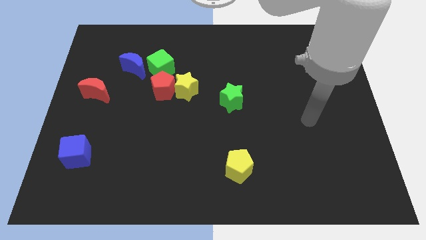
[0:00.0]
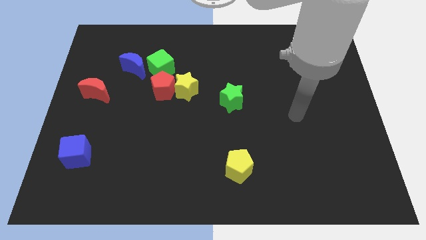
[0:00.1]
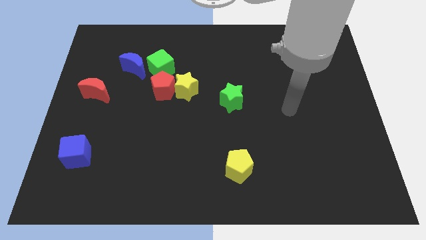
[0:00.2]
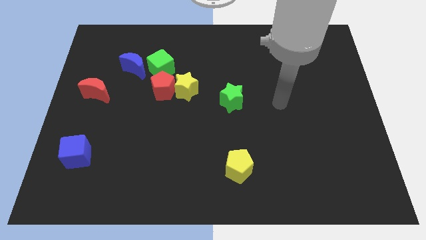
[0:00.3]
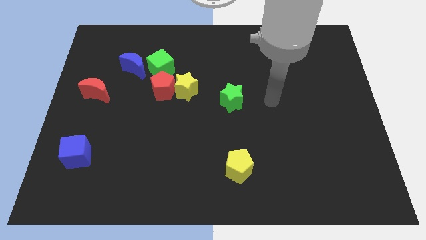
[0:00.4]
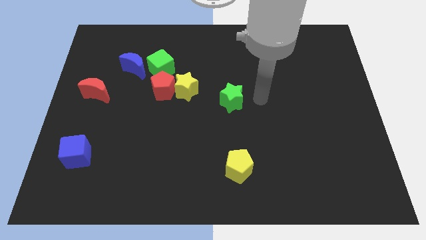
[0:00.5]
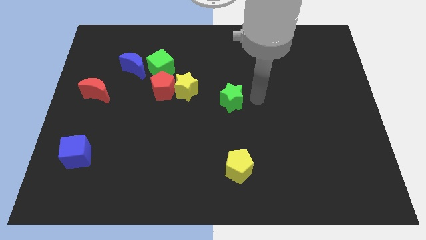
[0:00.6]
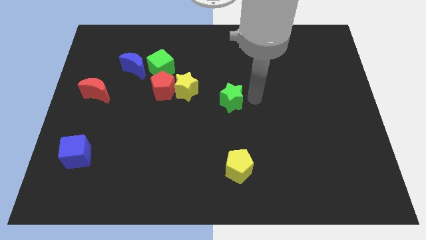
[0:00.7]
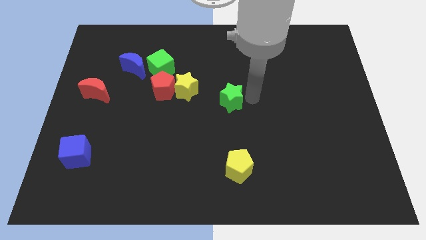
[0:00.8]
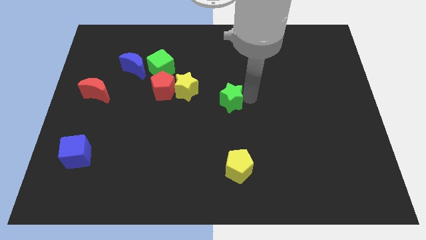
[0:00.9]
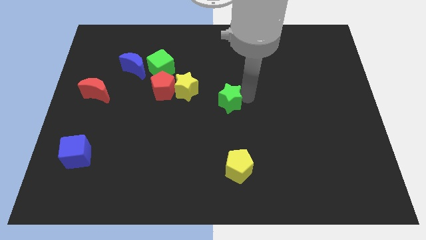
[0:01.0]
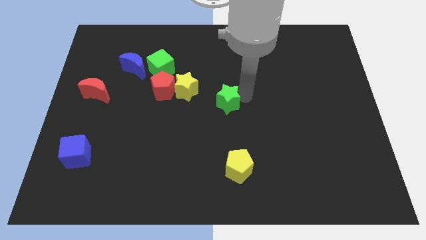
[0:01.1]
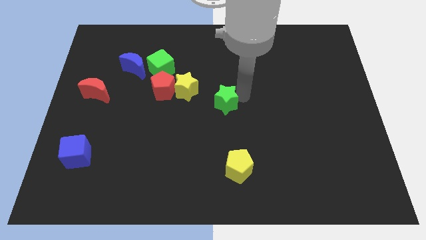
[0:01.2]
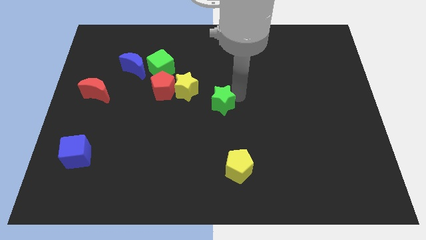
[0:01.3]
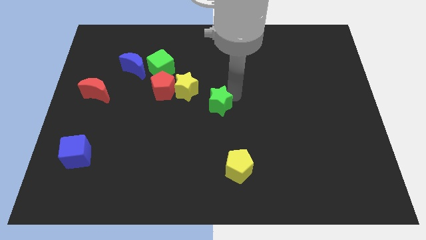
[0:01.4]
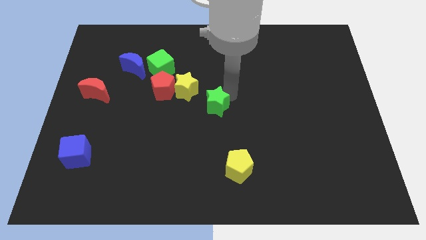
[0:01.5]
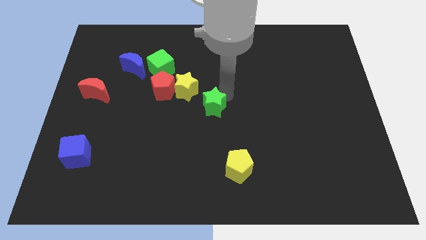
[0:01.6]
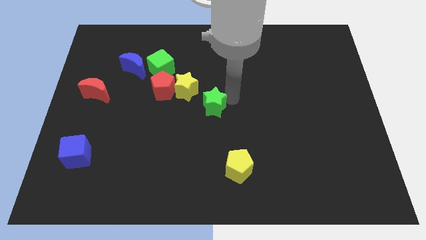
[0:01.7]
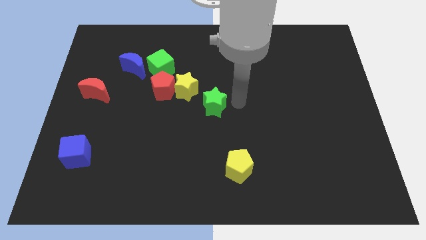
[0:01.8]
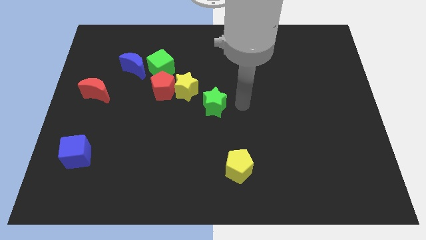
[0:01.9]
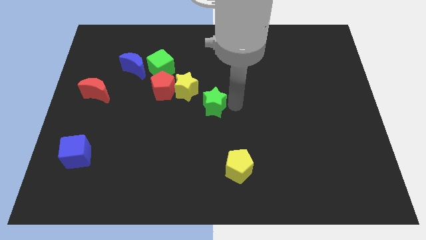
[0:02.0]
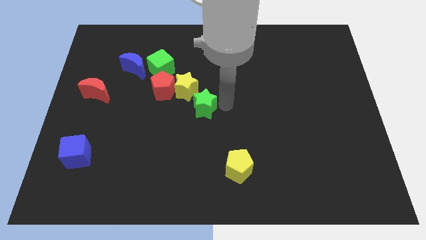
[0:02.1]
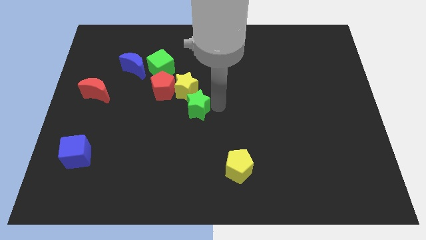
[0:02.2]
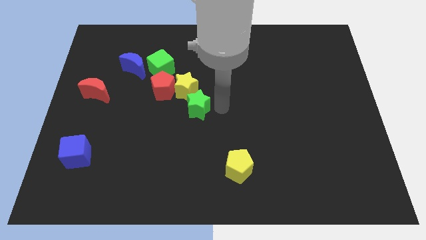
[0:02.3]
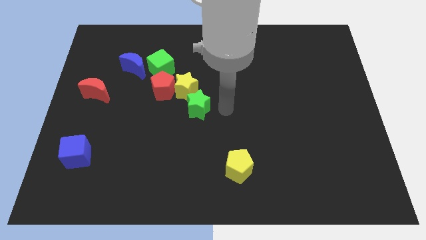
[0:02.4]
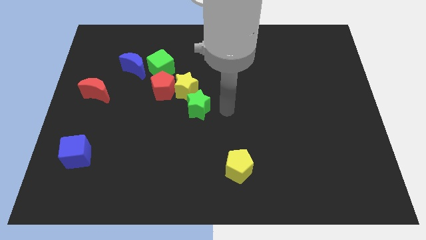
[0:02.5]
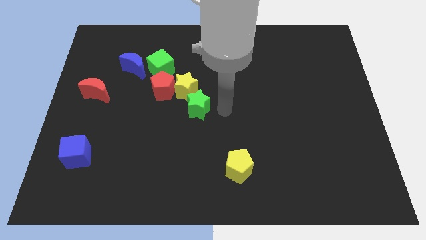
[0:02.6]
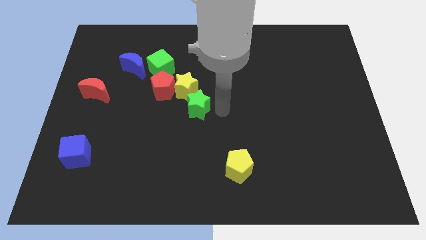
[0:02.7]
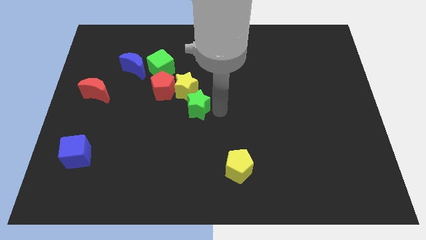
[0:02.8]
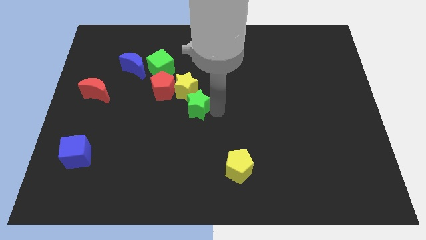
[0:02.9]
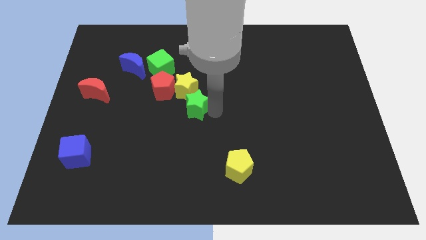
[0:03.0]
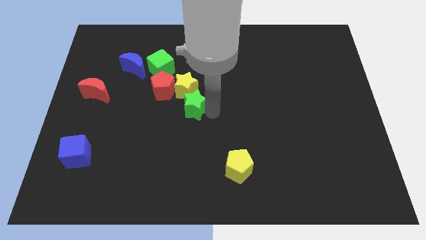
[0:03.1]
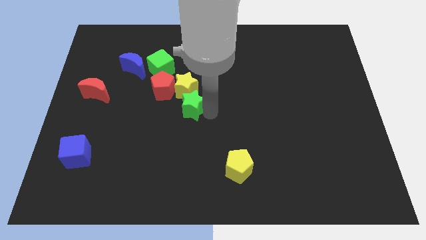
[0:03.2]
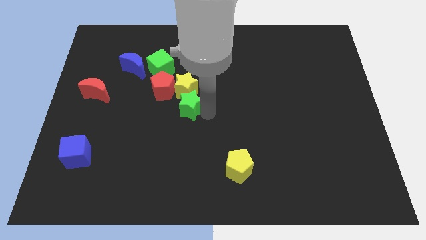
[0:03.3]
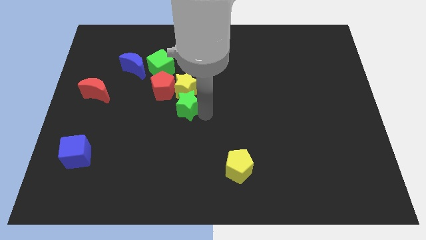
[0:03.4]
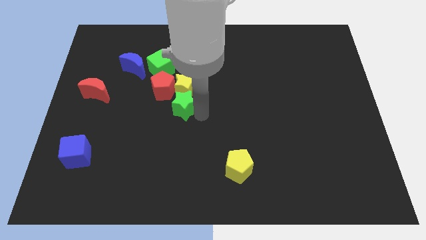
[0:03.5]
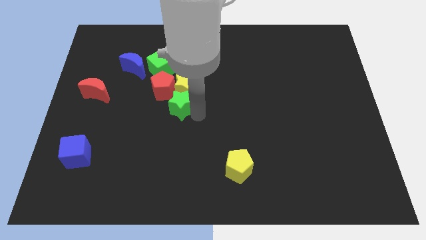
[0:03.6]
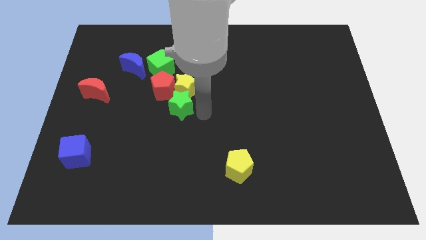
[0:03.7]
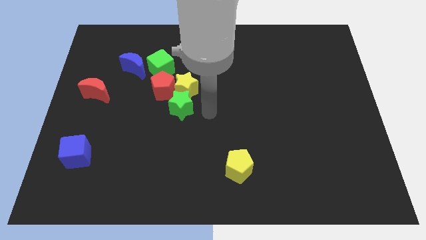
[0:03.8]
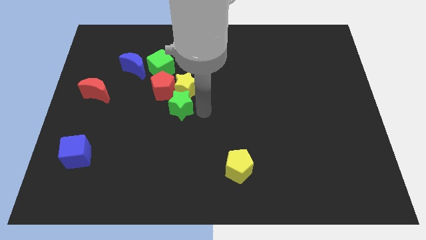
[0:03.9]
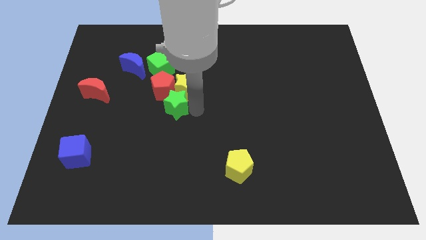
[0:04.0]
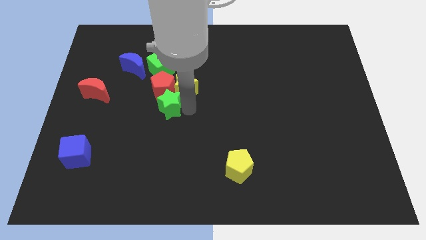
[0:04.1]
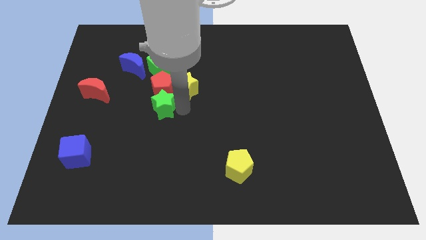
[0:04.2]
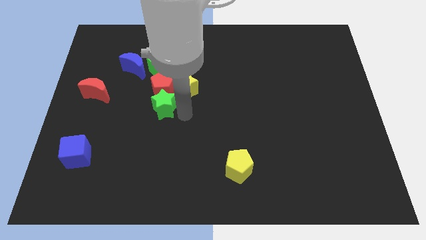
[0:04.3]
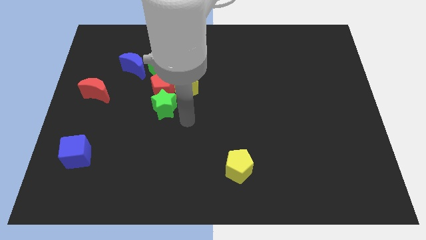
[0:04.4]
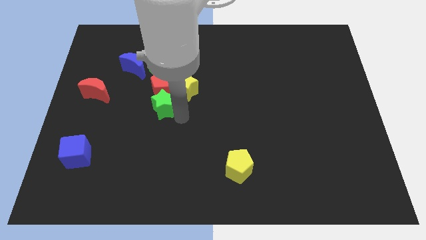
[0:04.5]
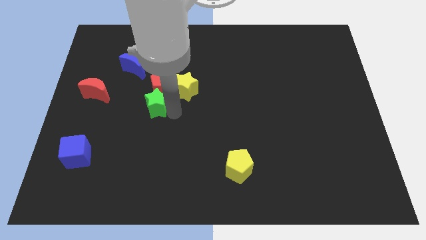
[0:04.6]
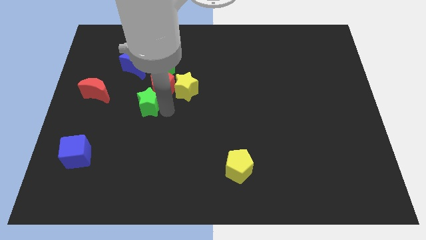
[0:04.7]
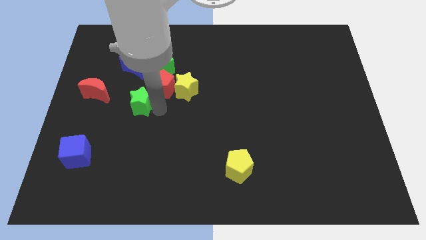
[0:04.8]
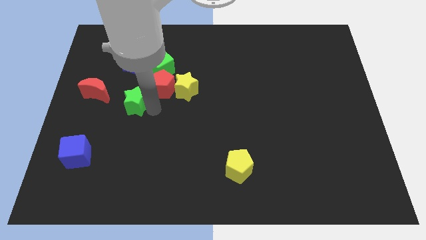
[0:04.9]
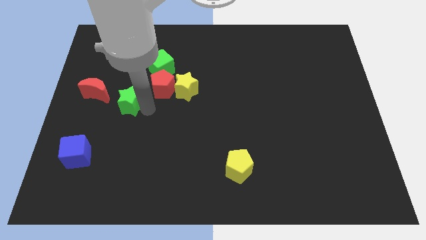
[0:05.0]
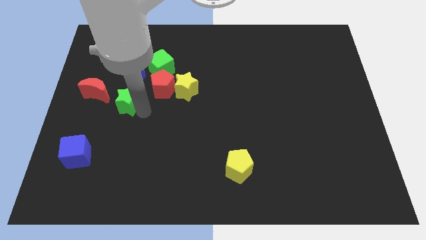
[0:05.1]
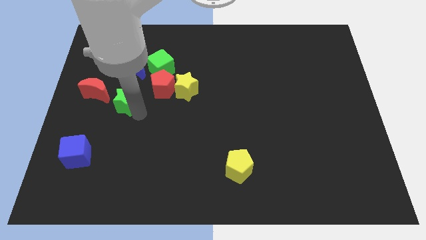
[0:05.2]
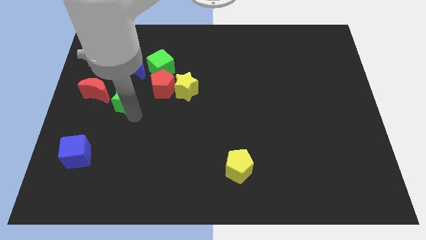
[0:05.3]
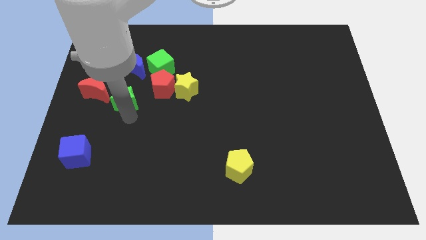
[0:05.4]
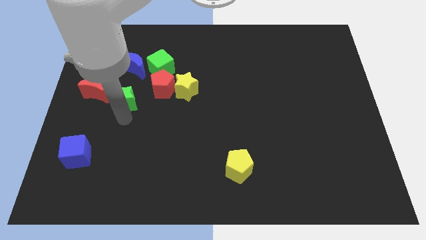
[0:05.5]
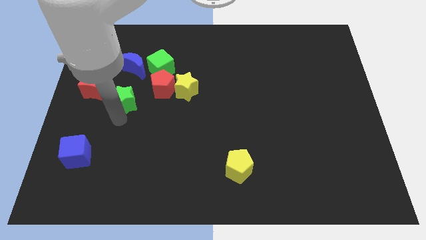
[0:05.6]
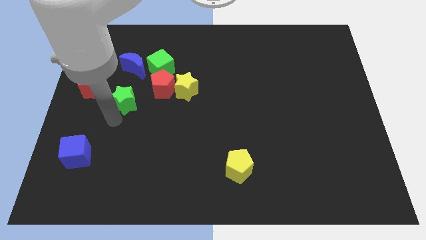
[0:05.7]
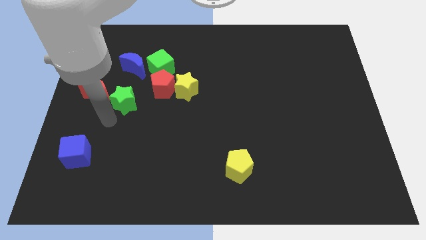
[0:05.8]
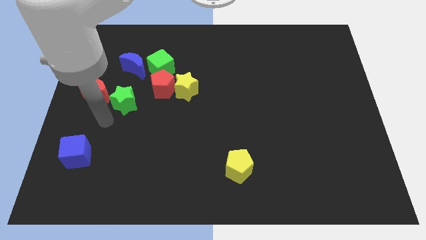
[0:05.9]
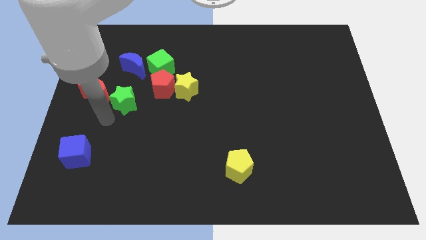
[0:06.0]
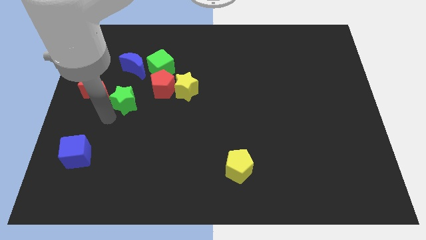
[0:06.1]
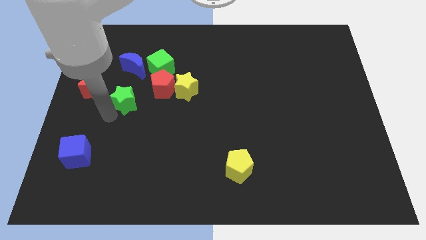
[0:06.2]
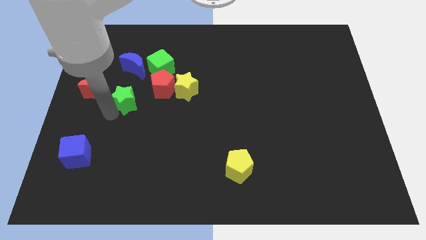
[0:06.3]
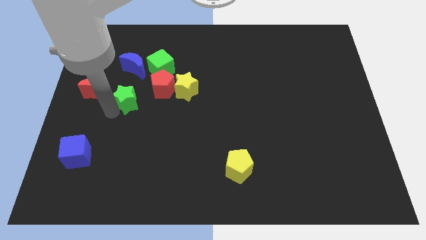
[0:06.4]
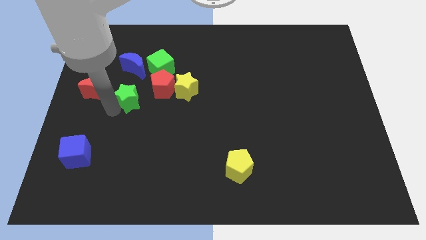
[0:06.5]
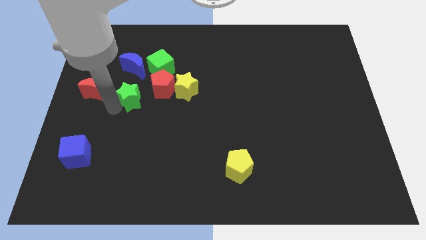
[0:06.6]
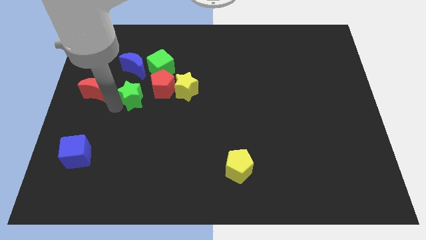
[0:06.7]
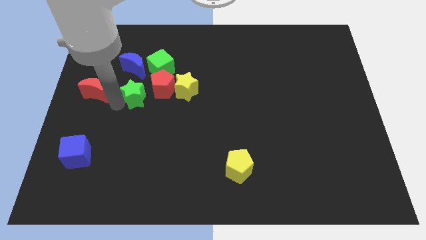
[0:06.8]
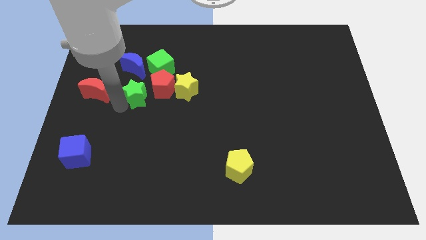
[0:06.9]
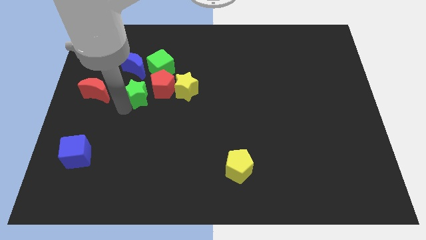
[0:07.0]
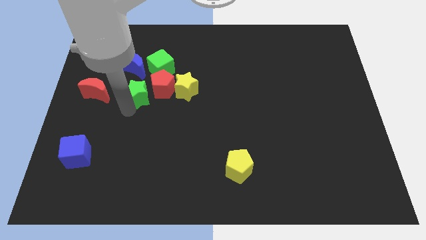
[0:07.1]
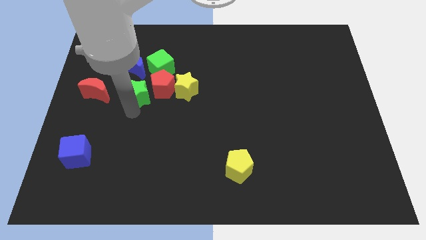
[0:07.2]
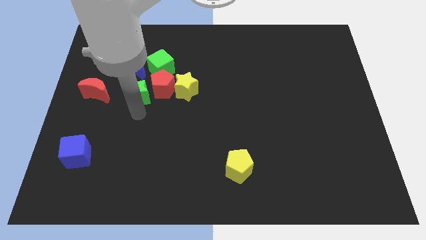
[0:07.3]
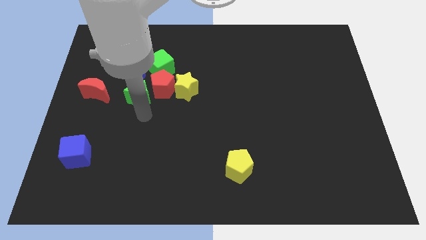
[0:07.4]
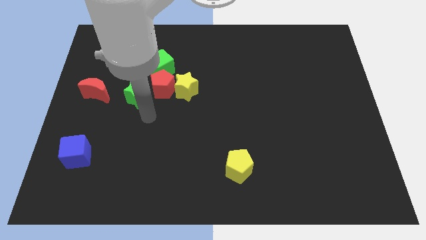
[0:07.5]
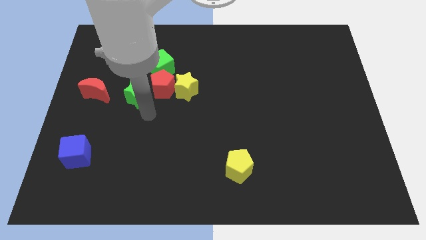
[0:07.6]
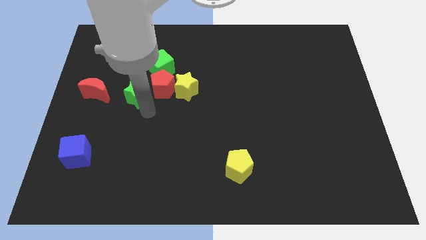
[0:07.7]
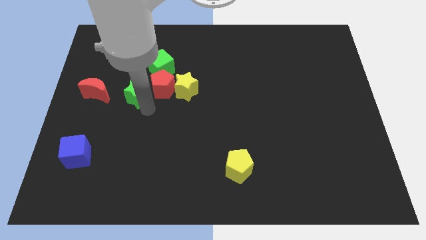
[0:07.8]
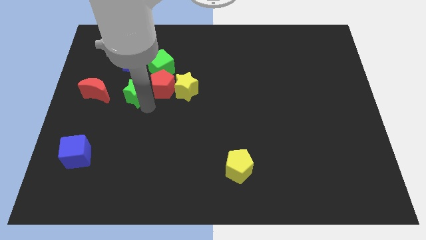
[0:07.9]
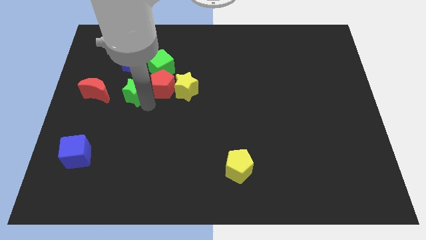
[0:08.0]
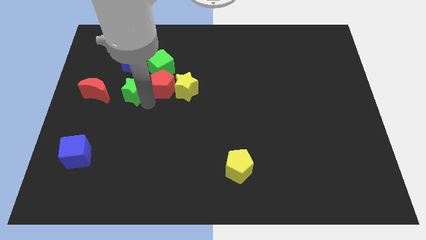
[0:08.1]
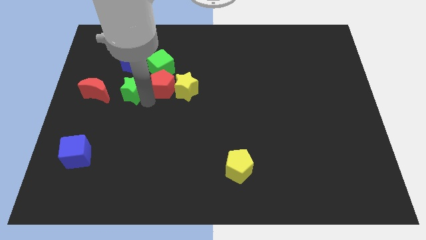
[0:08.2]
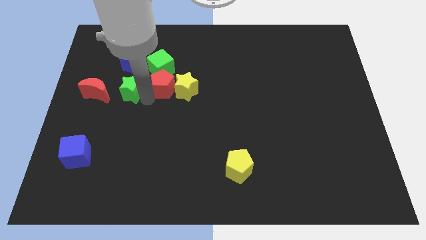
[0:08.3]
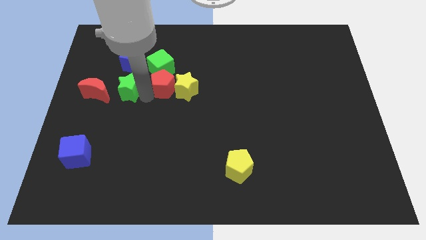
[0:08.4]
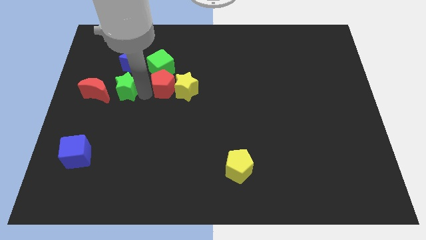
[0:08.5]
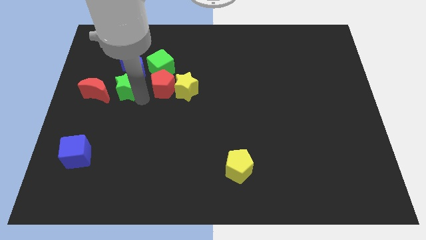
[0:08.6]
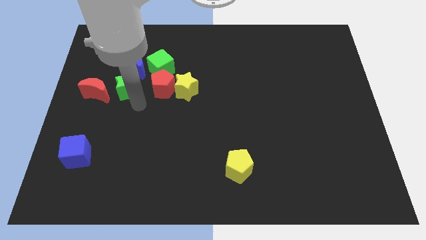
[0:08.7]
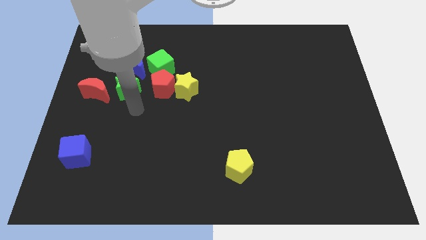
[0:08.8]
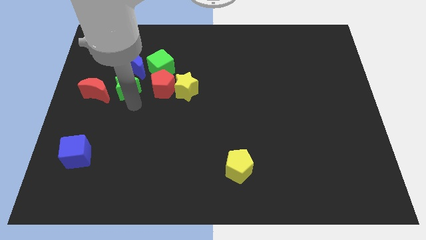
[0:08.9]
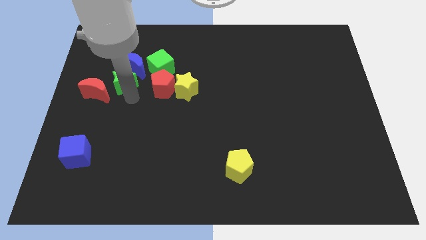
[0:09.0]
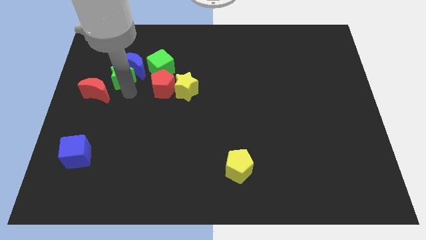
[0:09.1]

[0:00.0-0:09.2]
push the green star to the left of the green cube
